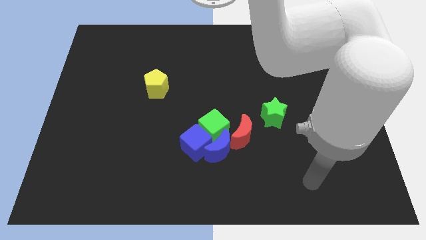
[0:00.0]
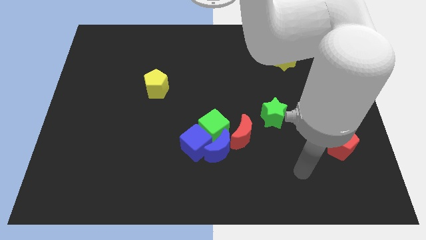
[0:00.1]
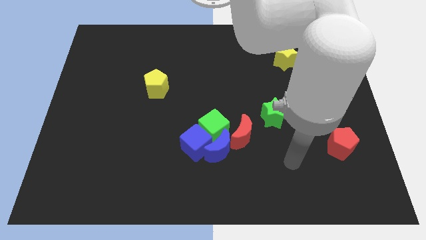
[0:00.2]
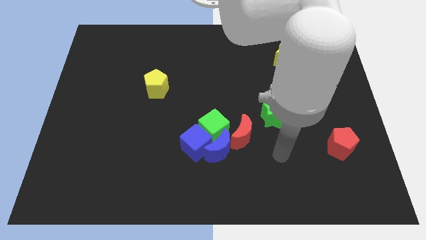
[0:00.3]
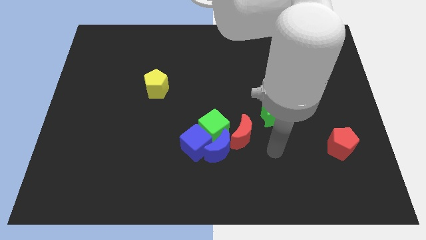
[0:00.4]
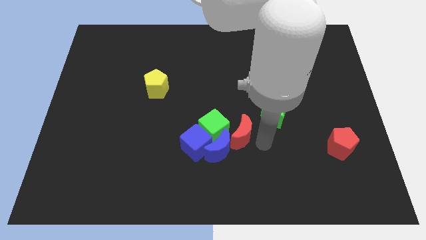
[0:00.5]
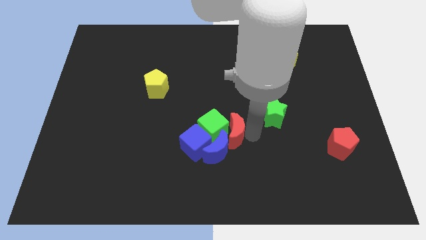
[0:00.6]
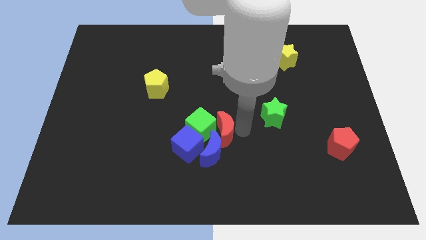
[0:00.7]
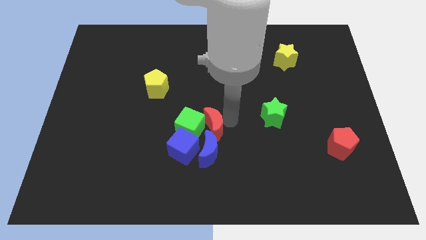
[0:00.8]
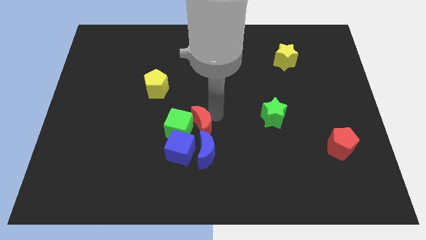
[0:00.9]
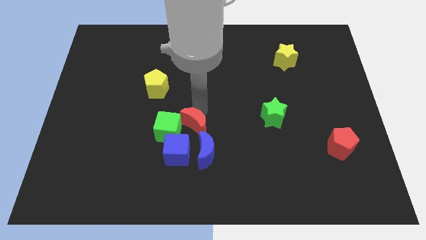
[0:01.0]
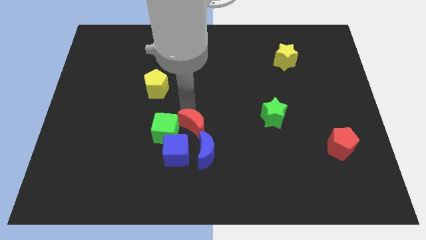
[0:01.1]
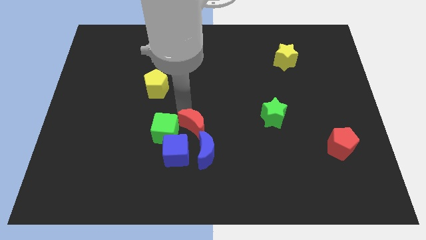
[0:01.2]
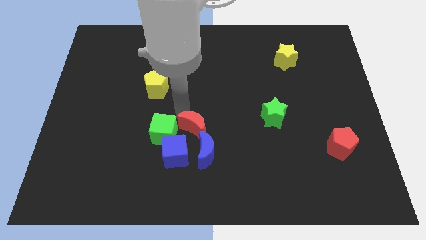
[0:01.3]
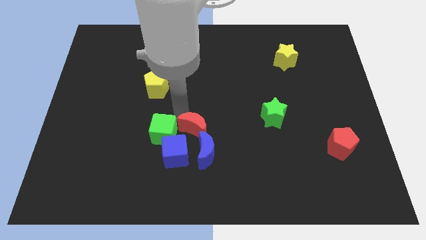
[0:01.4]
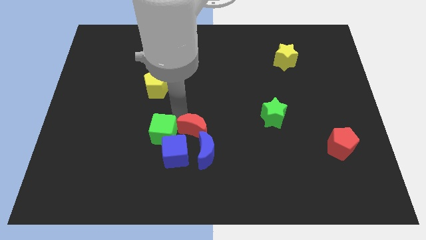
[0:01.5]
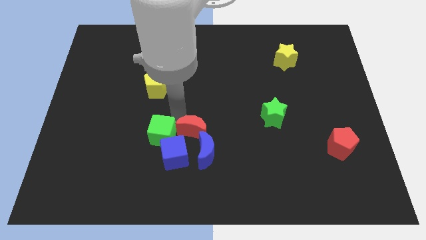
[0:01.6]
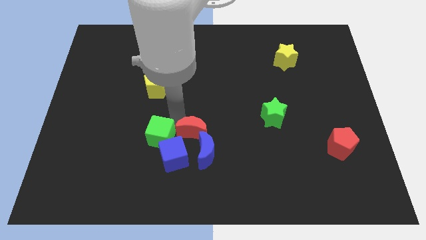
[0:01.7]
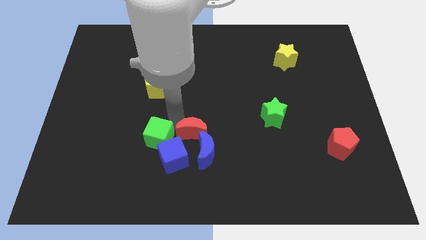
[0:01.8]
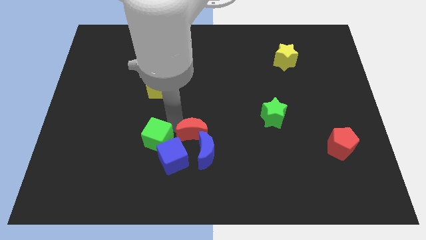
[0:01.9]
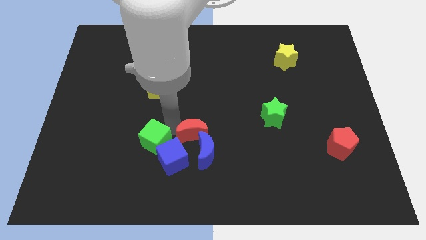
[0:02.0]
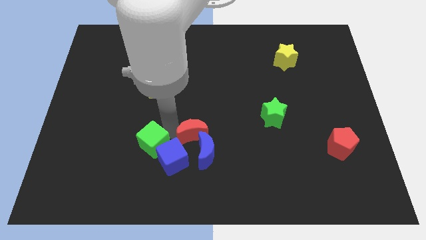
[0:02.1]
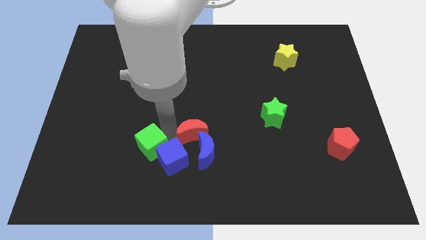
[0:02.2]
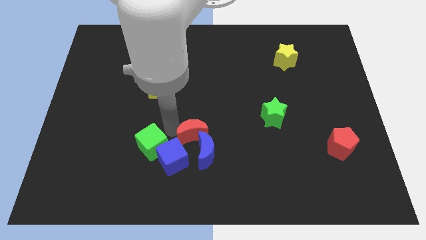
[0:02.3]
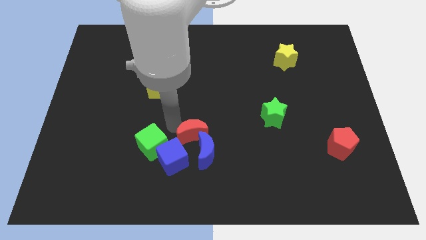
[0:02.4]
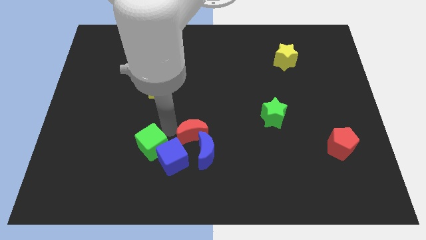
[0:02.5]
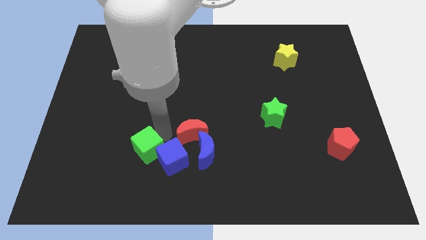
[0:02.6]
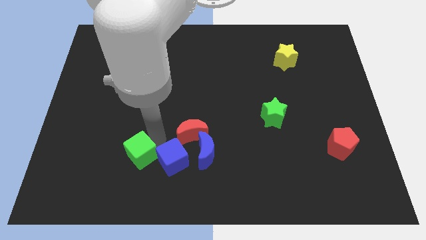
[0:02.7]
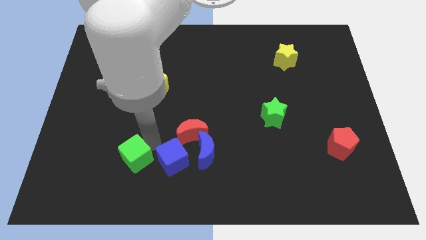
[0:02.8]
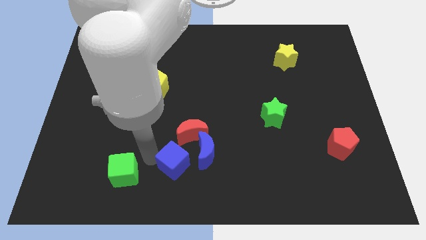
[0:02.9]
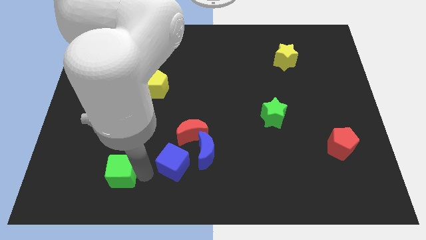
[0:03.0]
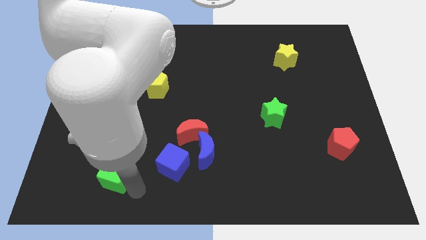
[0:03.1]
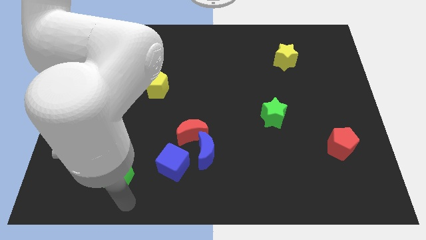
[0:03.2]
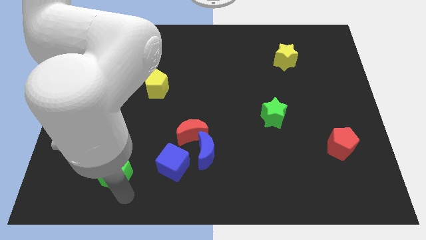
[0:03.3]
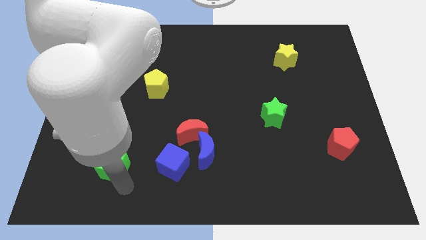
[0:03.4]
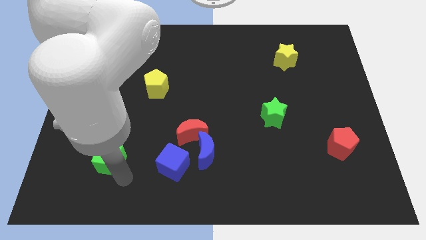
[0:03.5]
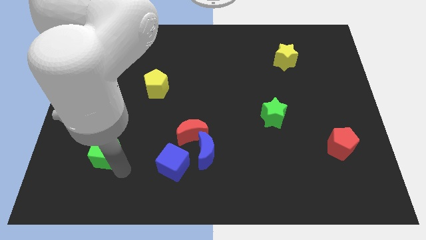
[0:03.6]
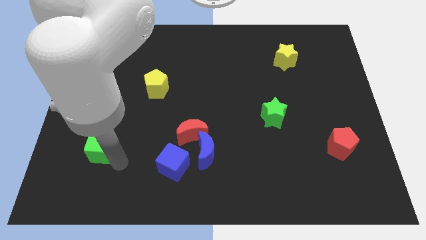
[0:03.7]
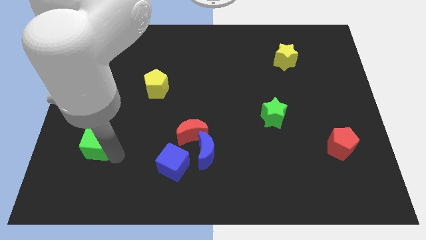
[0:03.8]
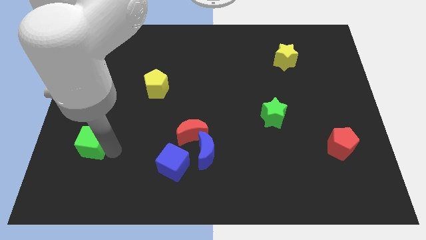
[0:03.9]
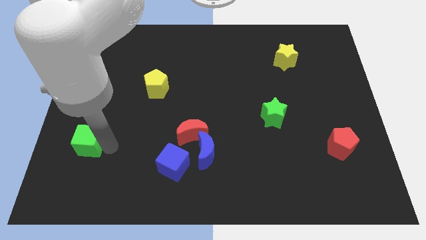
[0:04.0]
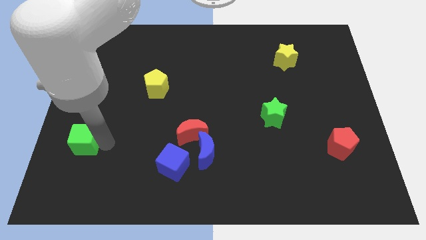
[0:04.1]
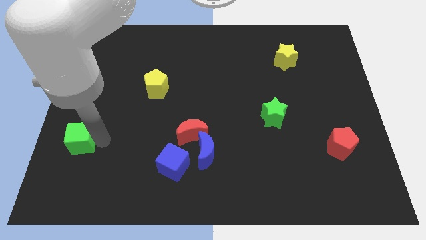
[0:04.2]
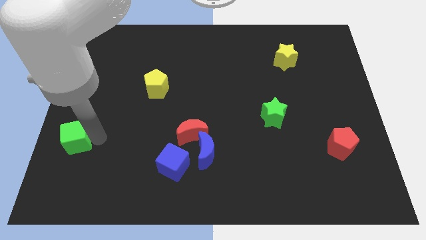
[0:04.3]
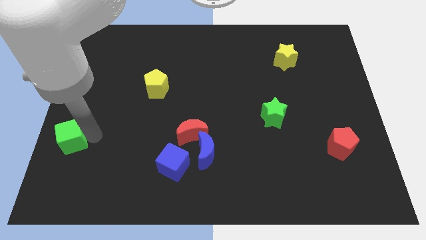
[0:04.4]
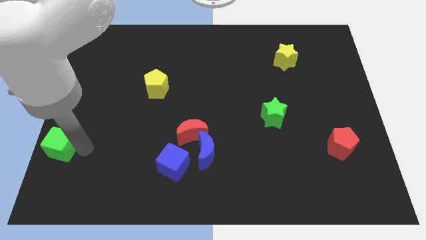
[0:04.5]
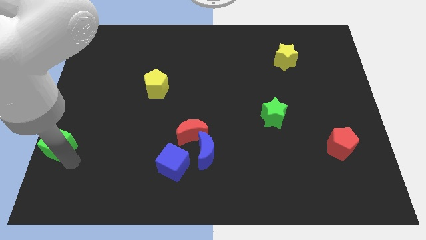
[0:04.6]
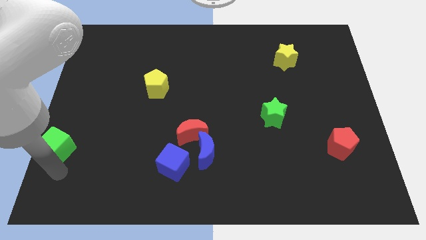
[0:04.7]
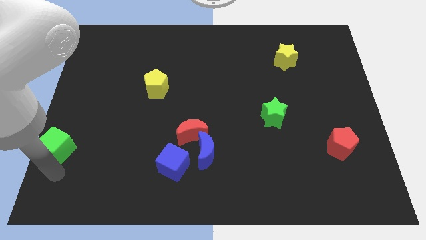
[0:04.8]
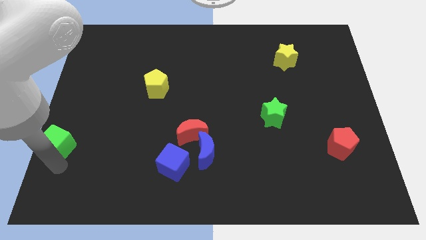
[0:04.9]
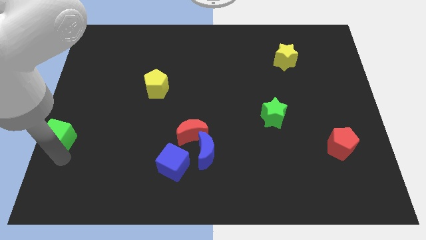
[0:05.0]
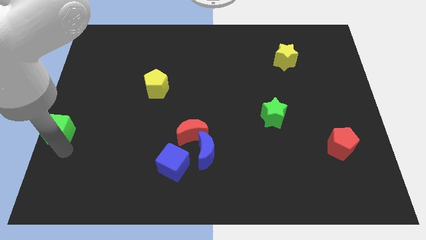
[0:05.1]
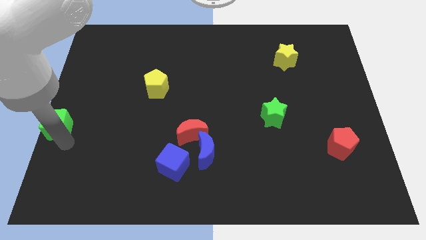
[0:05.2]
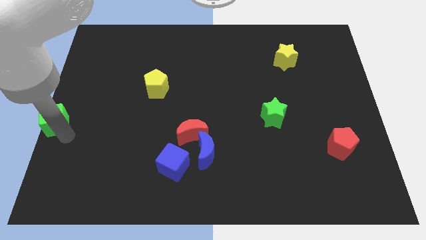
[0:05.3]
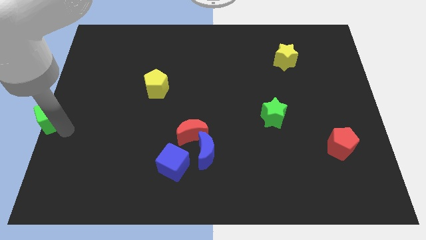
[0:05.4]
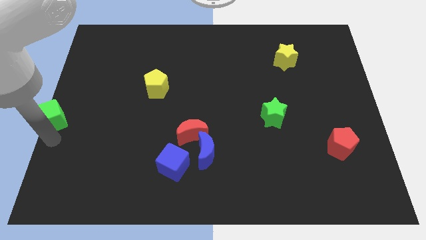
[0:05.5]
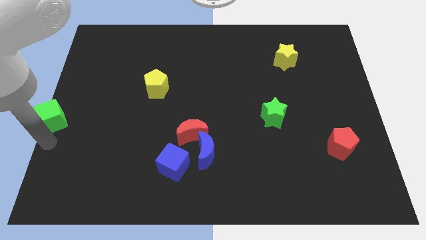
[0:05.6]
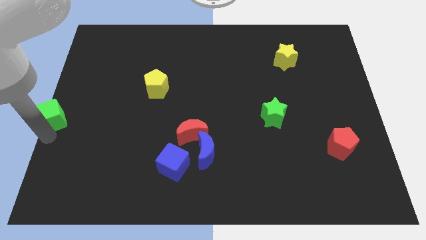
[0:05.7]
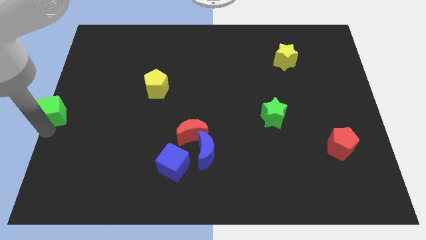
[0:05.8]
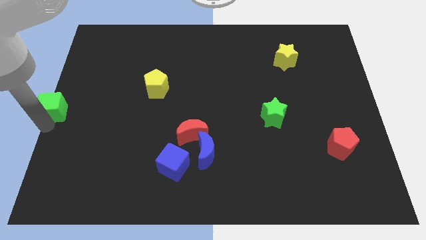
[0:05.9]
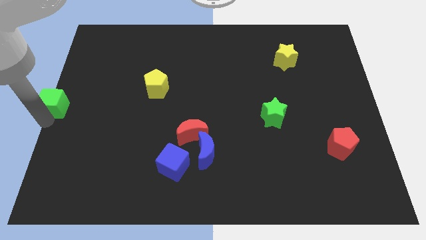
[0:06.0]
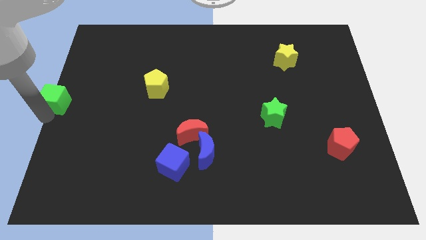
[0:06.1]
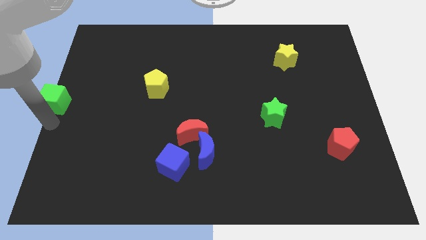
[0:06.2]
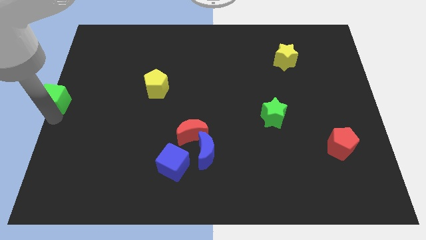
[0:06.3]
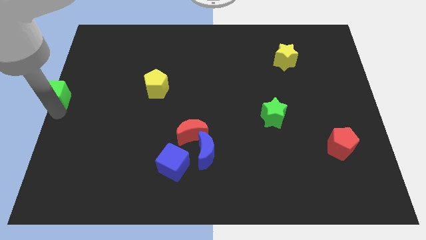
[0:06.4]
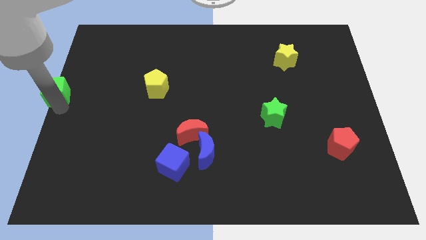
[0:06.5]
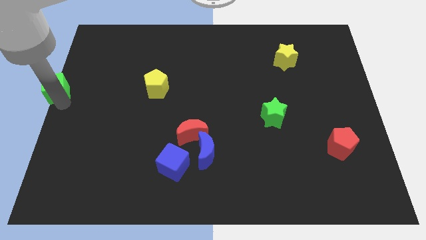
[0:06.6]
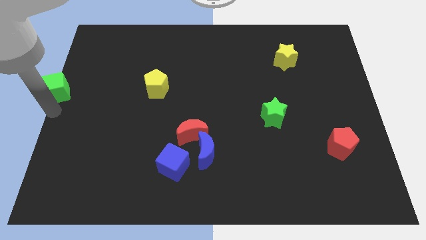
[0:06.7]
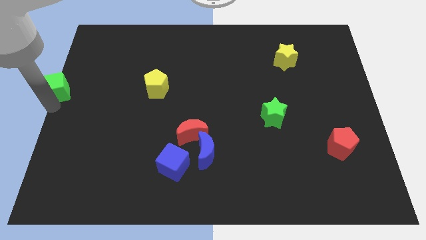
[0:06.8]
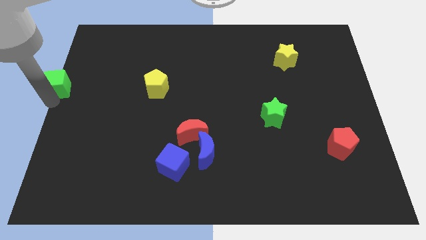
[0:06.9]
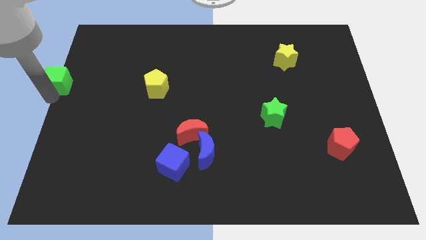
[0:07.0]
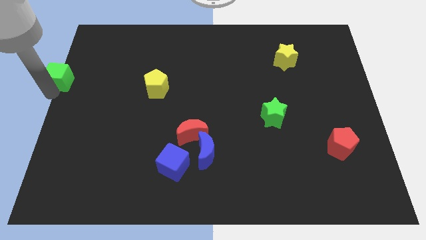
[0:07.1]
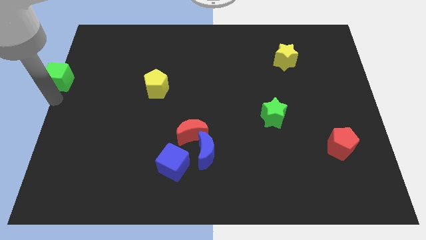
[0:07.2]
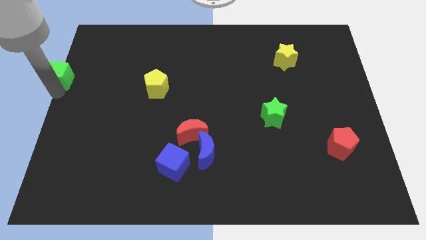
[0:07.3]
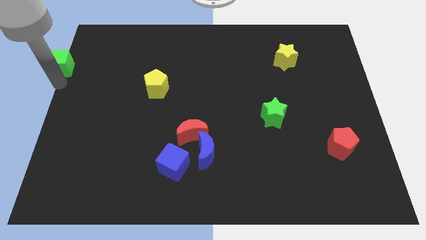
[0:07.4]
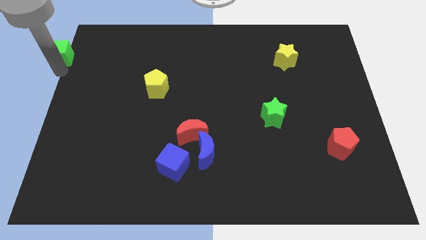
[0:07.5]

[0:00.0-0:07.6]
move the green cube to the top left corner
